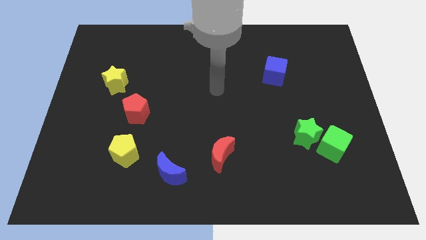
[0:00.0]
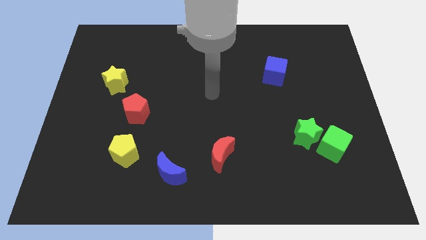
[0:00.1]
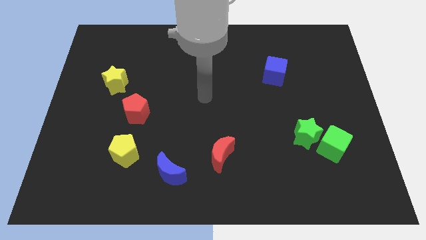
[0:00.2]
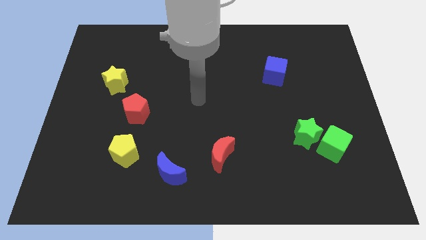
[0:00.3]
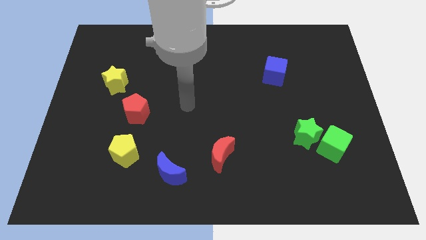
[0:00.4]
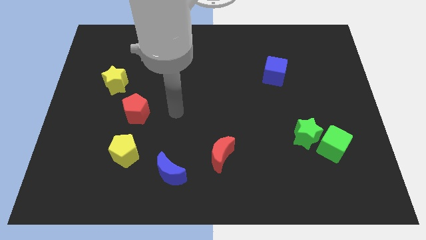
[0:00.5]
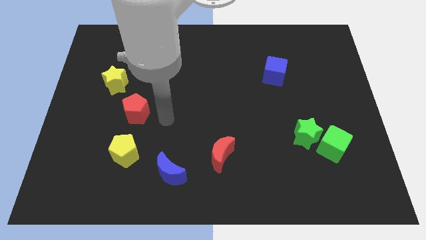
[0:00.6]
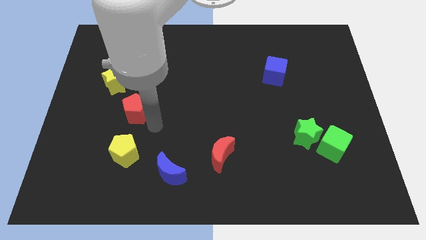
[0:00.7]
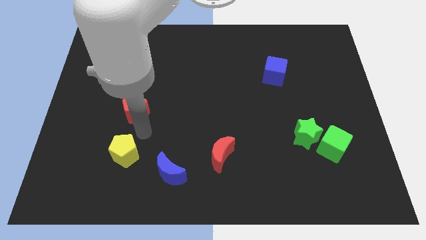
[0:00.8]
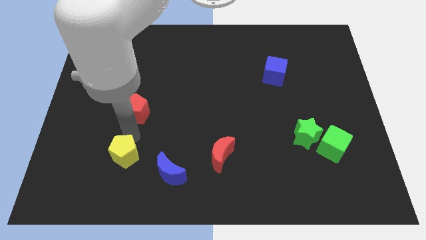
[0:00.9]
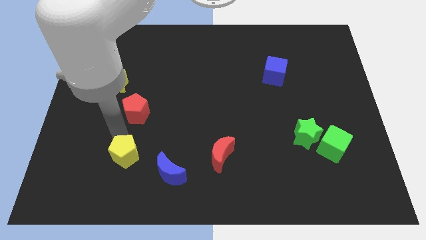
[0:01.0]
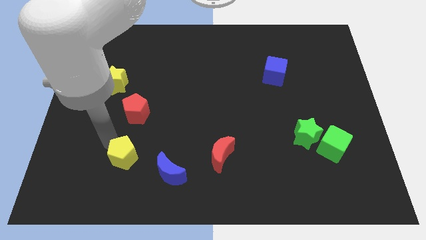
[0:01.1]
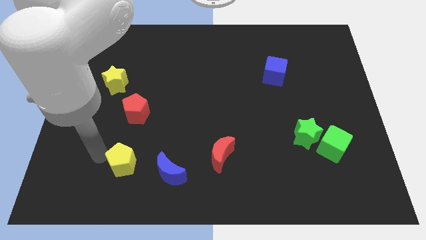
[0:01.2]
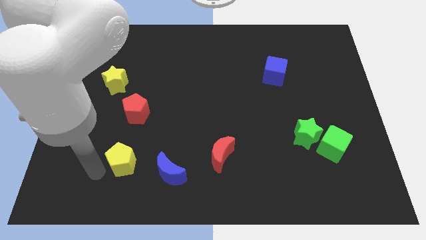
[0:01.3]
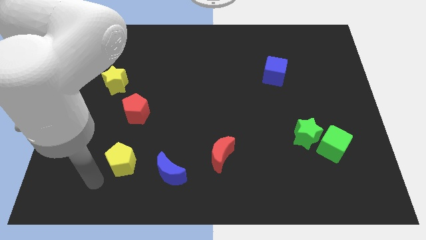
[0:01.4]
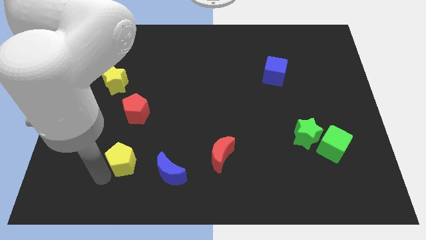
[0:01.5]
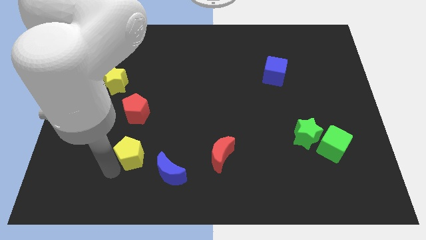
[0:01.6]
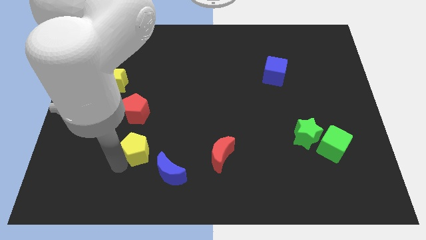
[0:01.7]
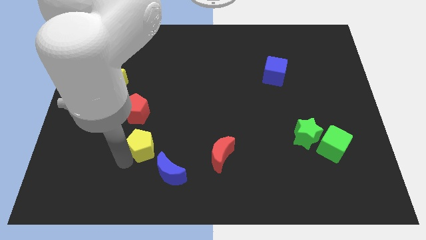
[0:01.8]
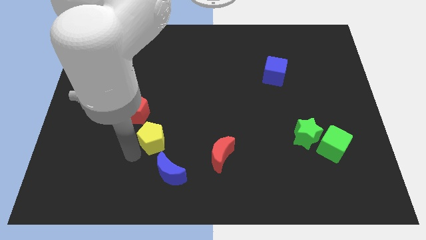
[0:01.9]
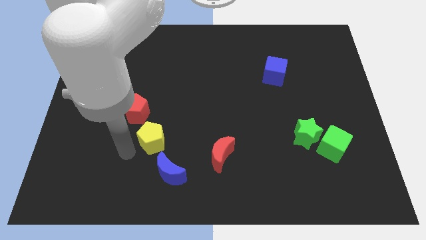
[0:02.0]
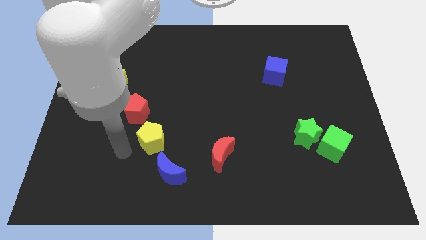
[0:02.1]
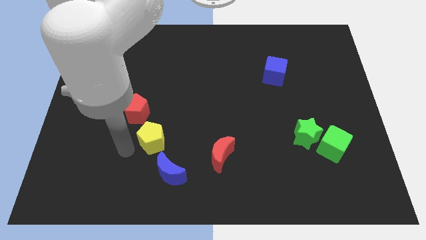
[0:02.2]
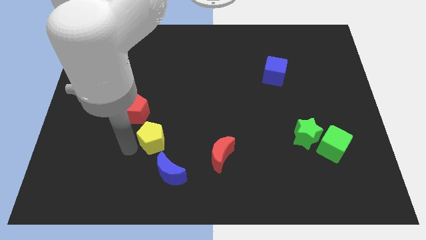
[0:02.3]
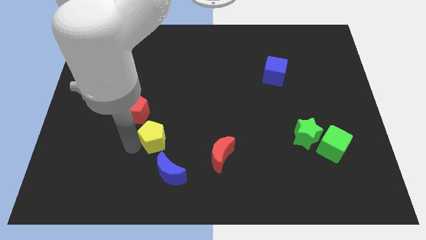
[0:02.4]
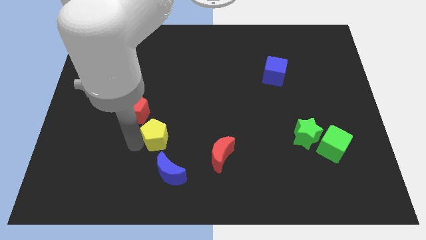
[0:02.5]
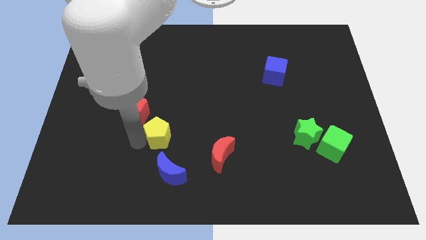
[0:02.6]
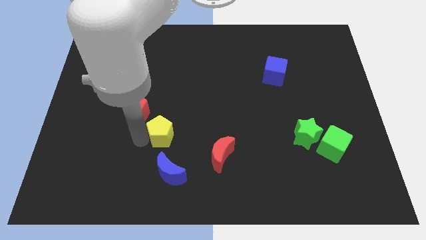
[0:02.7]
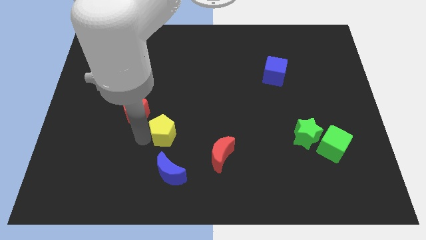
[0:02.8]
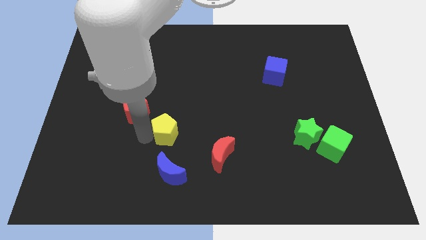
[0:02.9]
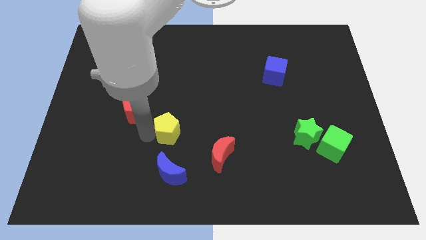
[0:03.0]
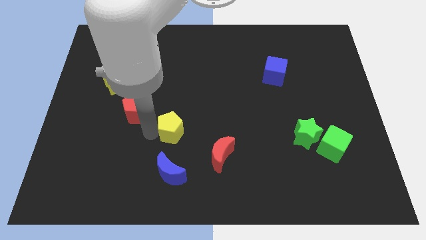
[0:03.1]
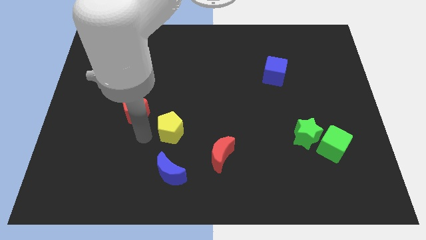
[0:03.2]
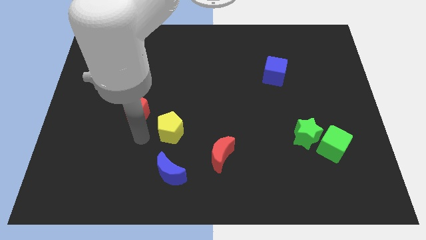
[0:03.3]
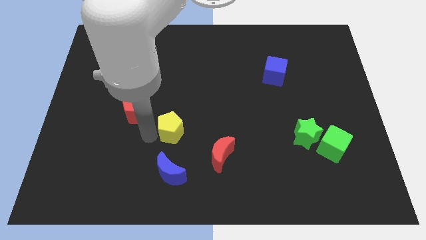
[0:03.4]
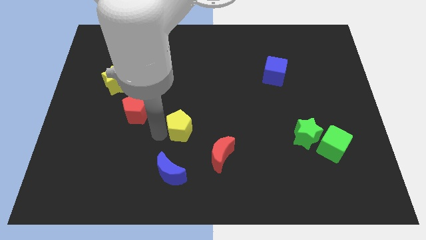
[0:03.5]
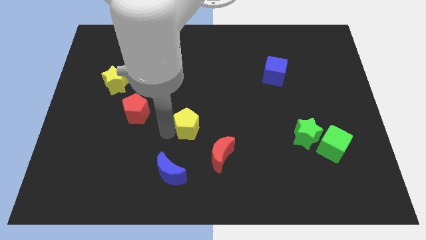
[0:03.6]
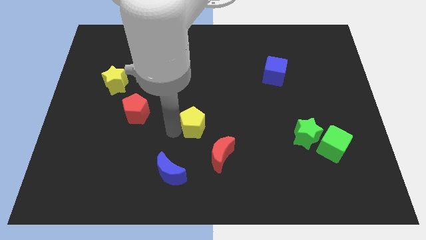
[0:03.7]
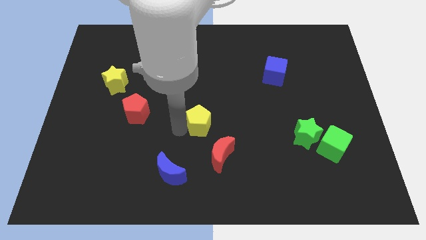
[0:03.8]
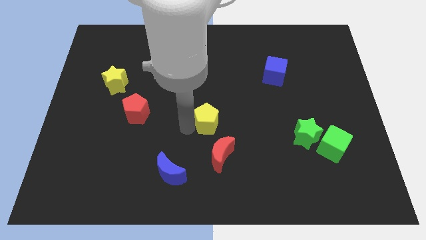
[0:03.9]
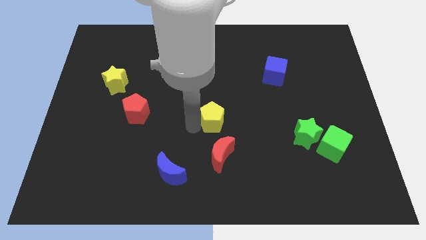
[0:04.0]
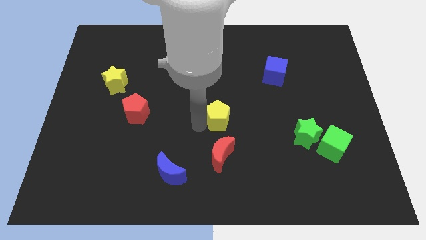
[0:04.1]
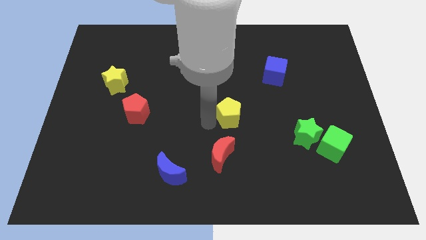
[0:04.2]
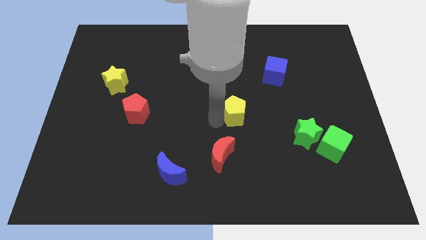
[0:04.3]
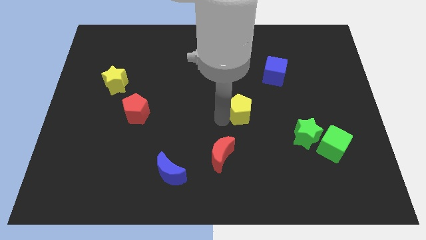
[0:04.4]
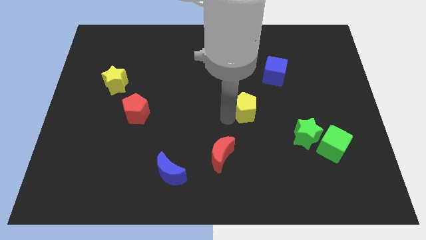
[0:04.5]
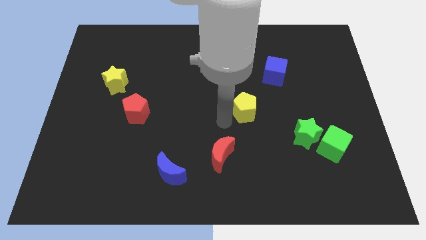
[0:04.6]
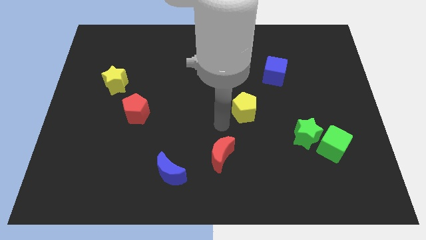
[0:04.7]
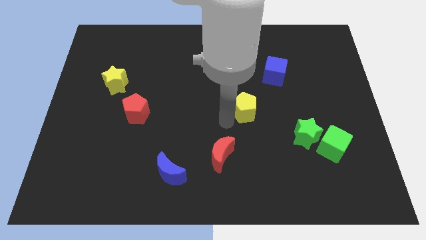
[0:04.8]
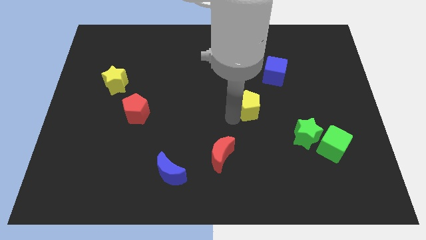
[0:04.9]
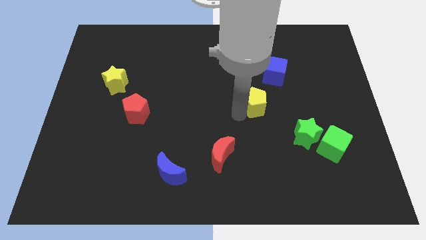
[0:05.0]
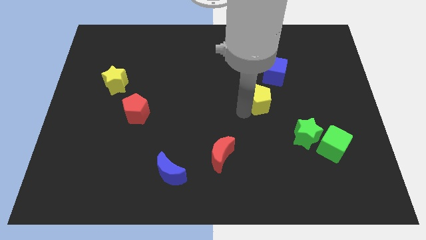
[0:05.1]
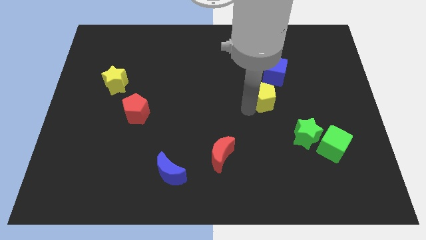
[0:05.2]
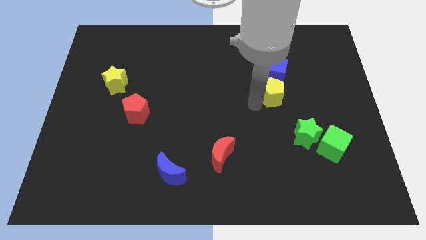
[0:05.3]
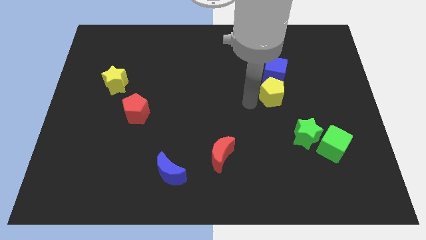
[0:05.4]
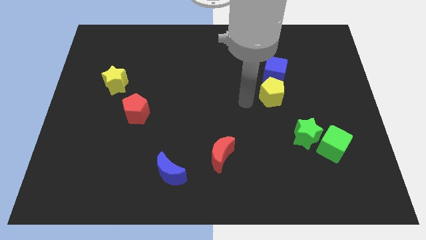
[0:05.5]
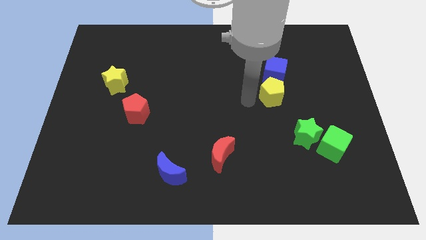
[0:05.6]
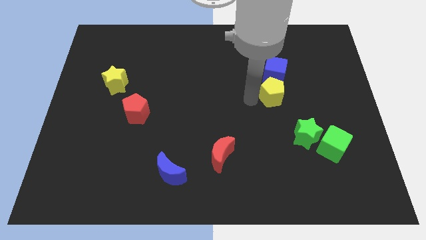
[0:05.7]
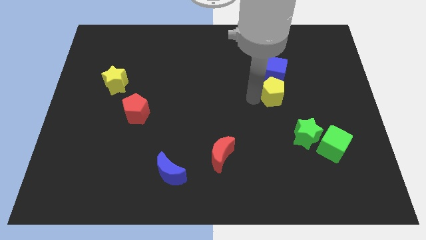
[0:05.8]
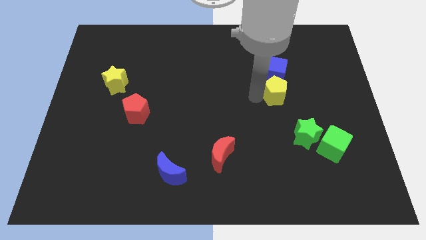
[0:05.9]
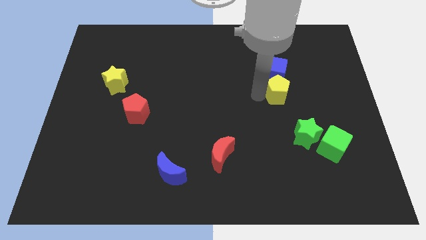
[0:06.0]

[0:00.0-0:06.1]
slide the yellow pentagon to the bottom right of the blue cube

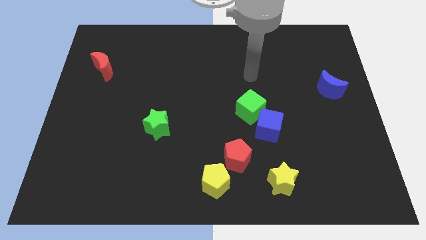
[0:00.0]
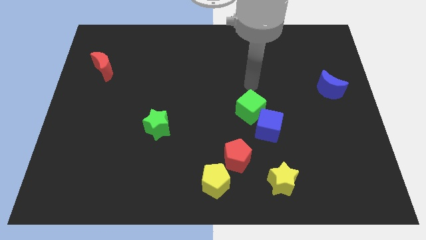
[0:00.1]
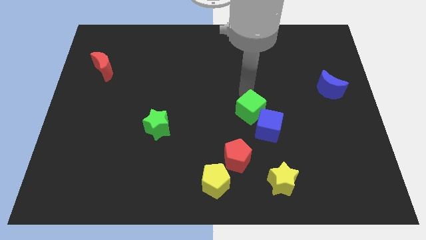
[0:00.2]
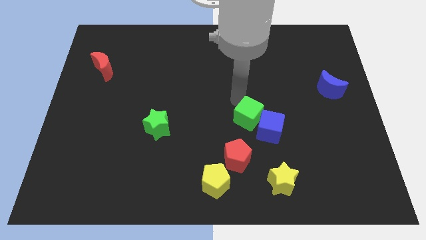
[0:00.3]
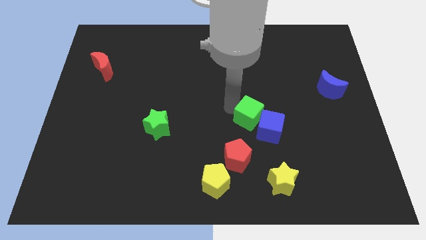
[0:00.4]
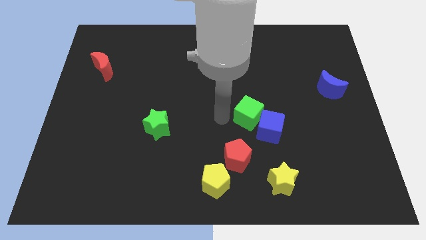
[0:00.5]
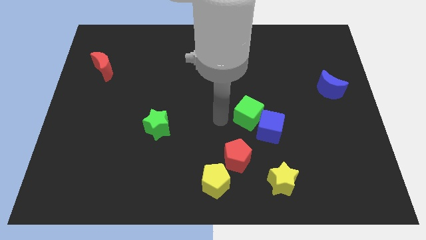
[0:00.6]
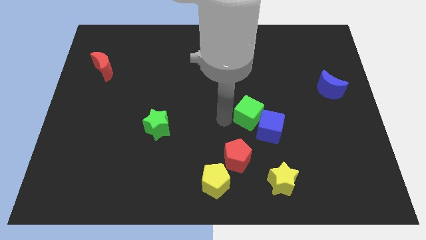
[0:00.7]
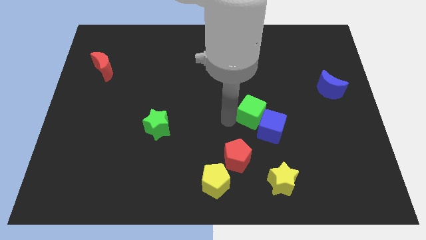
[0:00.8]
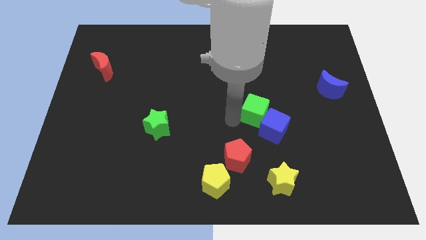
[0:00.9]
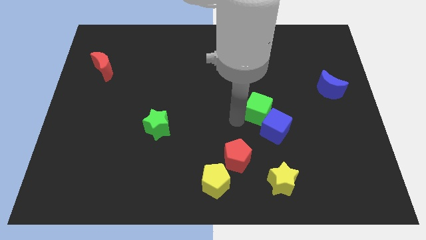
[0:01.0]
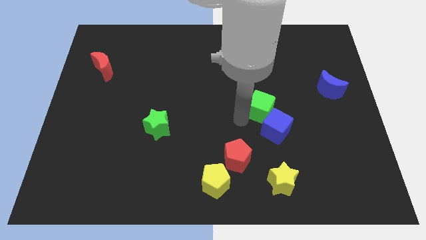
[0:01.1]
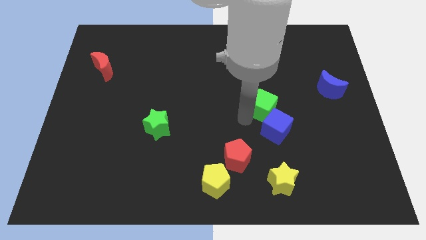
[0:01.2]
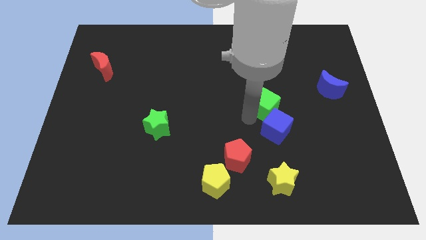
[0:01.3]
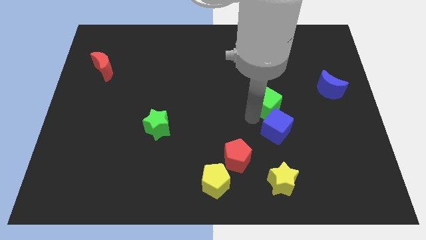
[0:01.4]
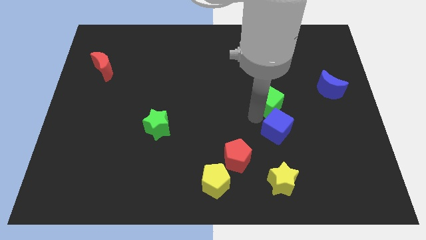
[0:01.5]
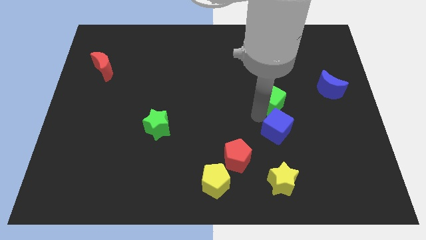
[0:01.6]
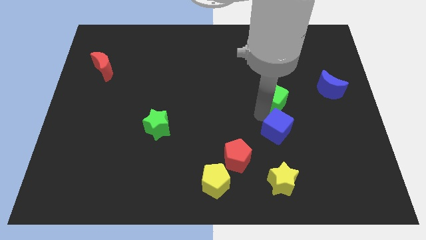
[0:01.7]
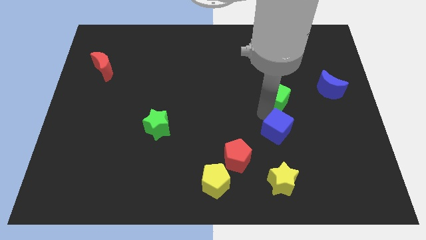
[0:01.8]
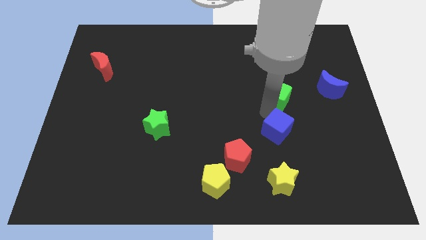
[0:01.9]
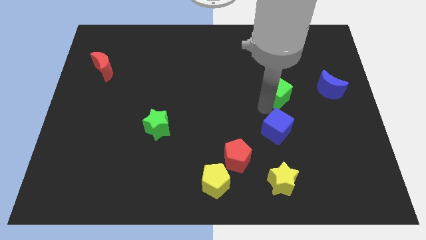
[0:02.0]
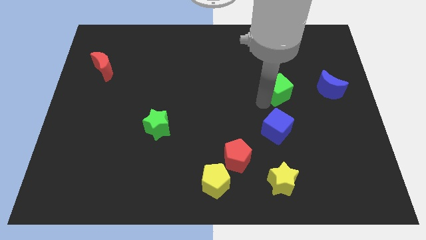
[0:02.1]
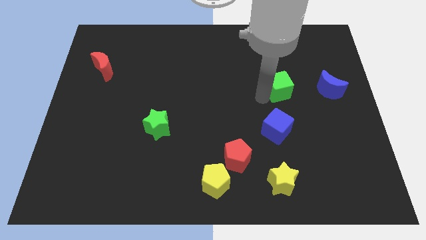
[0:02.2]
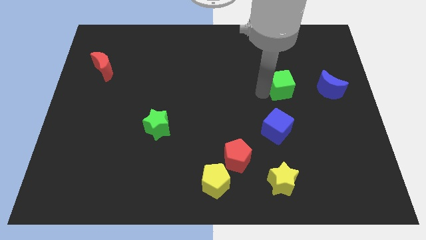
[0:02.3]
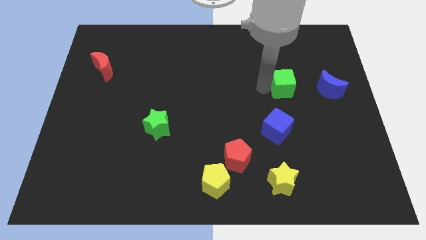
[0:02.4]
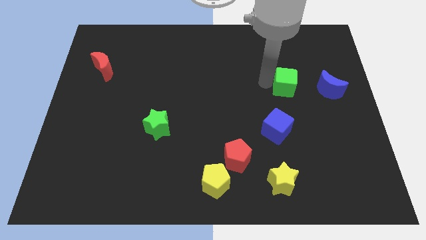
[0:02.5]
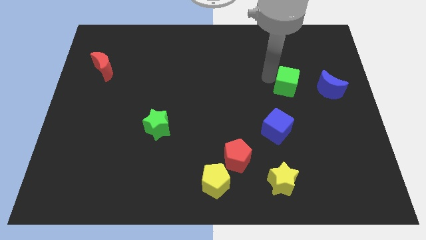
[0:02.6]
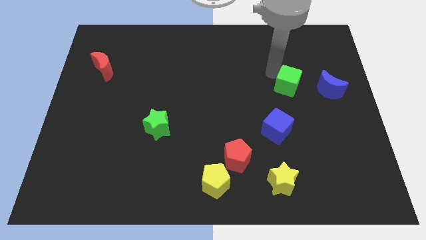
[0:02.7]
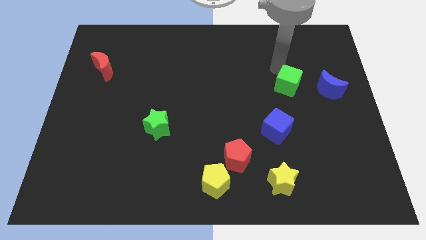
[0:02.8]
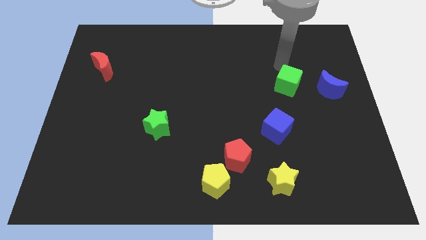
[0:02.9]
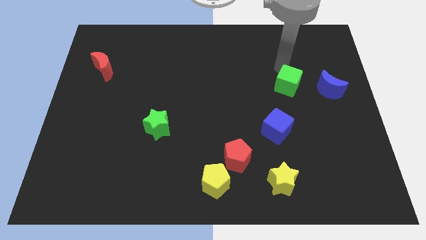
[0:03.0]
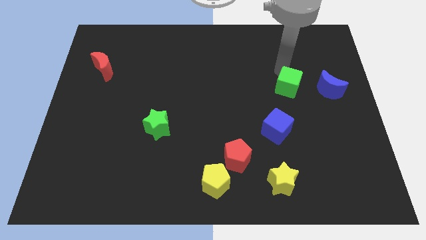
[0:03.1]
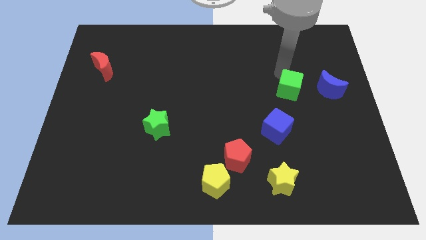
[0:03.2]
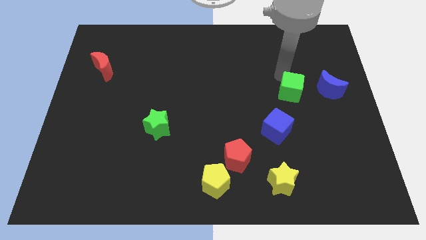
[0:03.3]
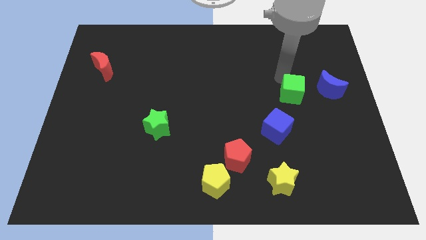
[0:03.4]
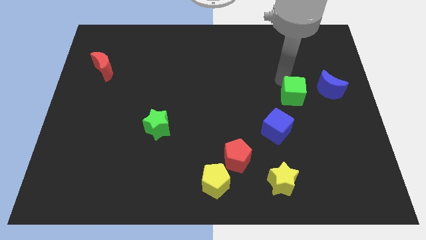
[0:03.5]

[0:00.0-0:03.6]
push the green cube to the top right side of the blue cube
